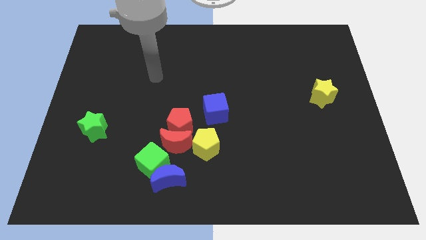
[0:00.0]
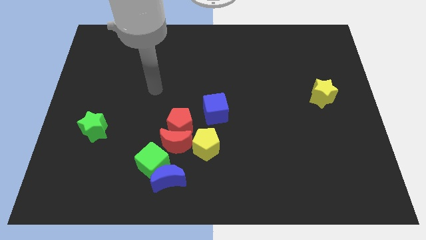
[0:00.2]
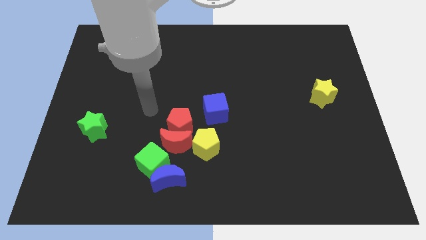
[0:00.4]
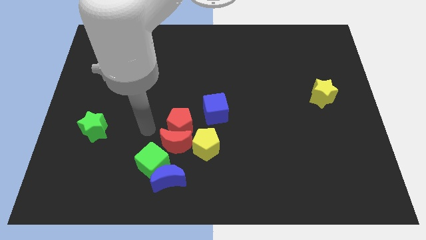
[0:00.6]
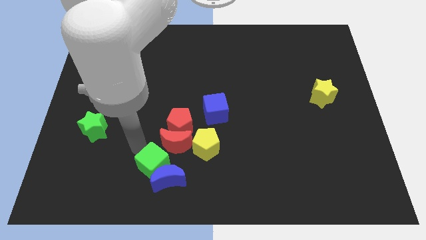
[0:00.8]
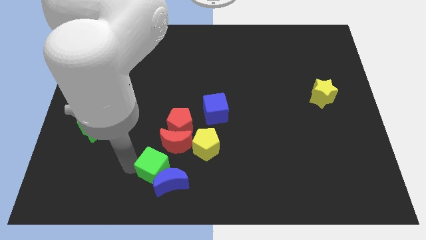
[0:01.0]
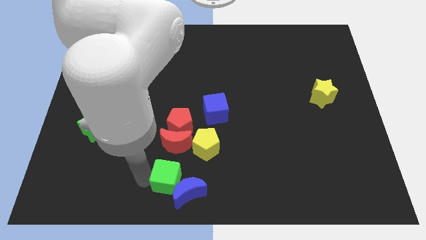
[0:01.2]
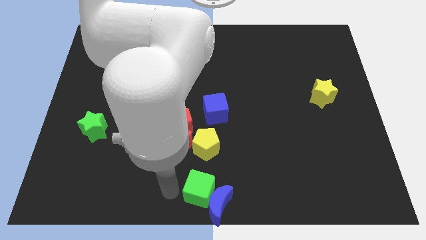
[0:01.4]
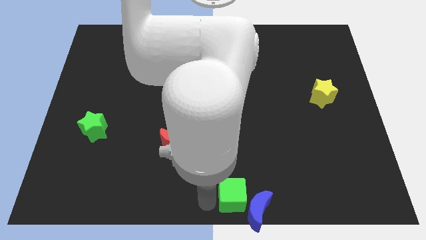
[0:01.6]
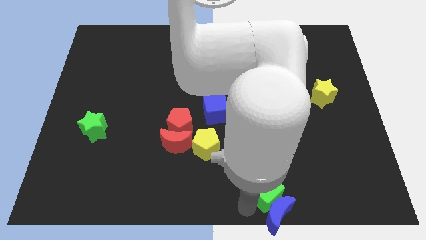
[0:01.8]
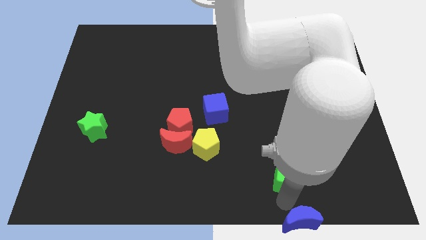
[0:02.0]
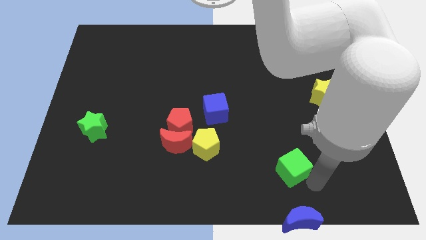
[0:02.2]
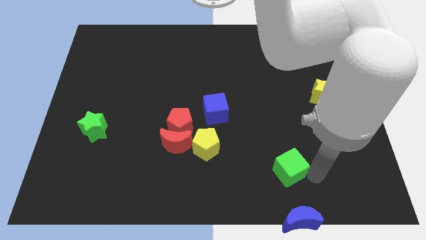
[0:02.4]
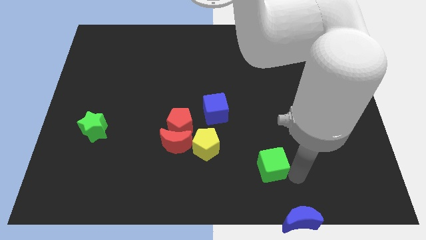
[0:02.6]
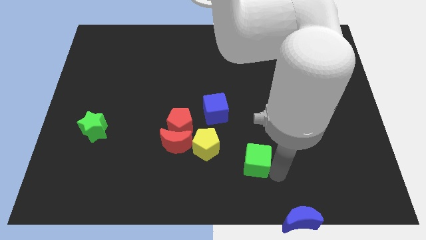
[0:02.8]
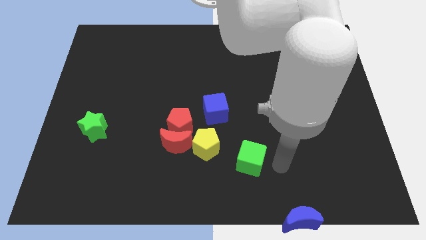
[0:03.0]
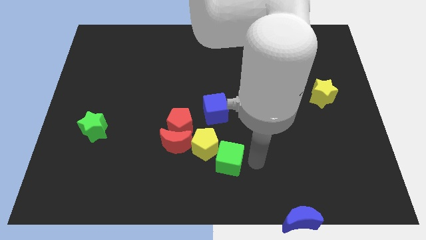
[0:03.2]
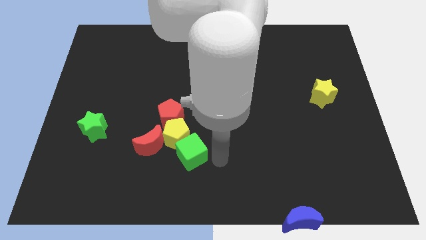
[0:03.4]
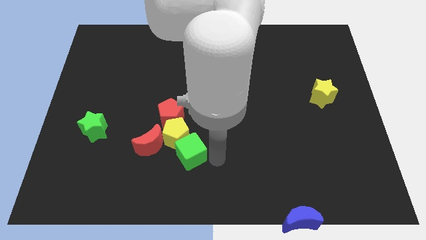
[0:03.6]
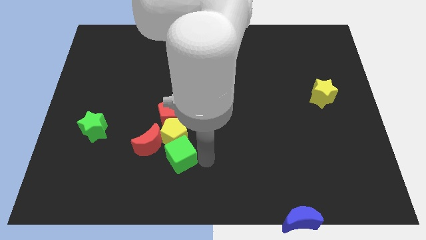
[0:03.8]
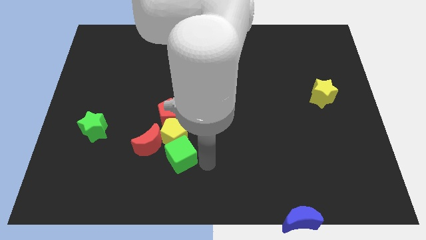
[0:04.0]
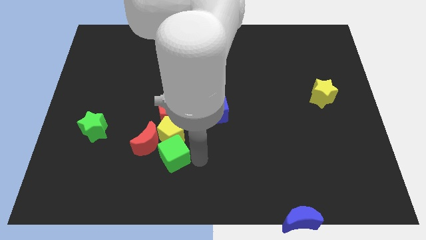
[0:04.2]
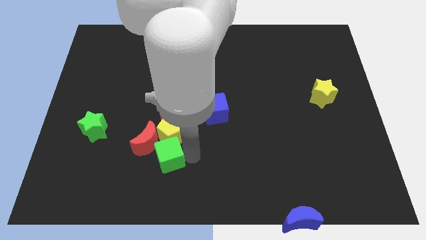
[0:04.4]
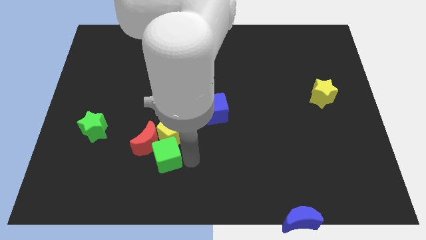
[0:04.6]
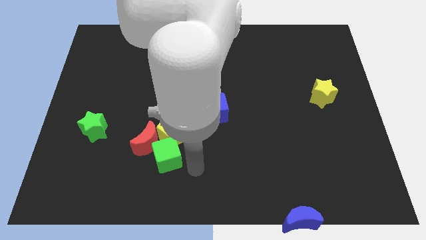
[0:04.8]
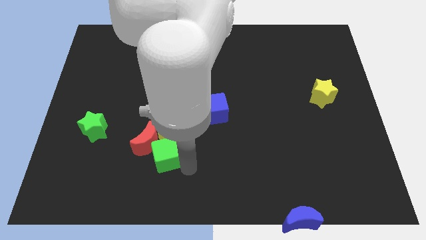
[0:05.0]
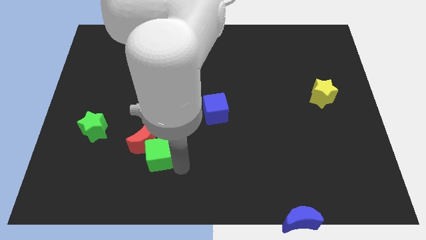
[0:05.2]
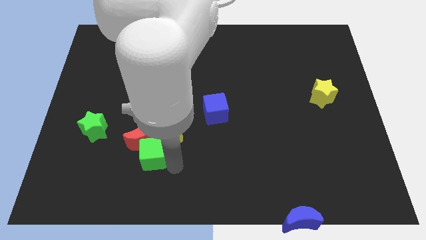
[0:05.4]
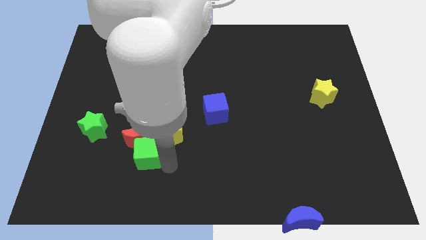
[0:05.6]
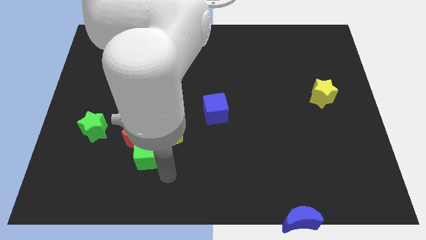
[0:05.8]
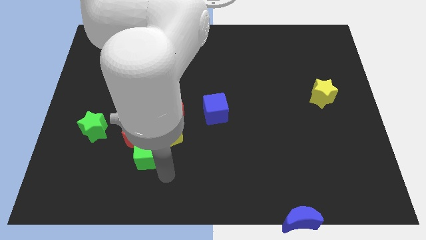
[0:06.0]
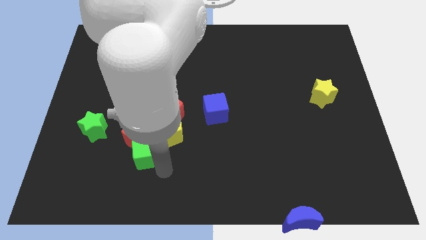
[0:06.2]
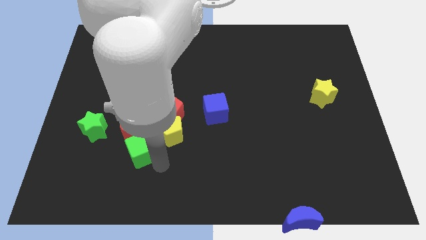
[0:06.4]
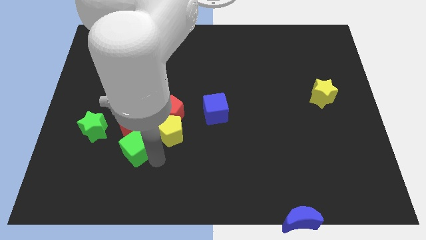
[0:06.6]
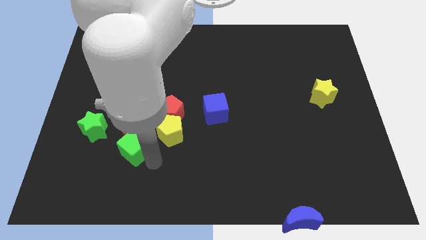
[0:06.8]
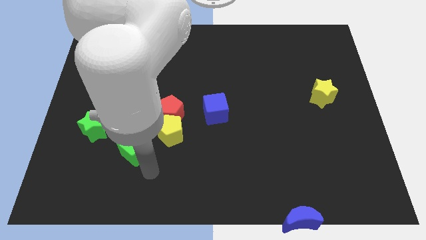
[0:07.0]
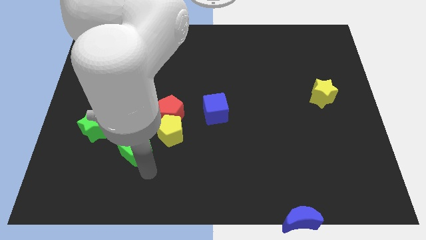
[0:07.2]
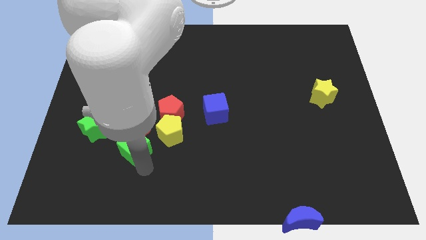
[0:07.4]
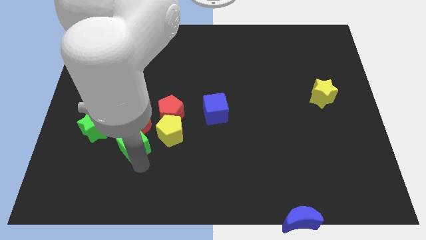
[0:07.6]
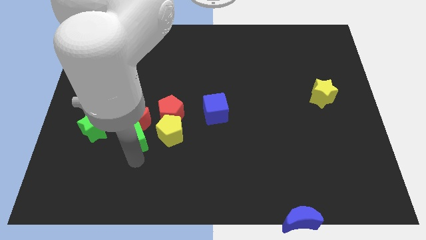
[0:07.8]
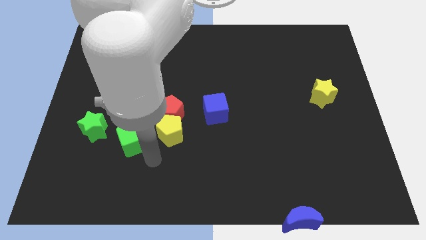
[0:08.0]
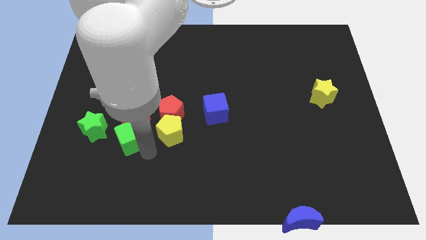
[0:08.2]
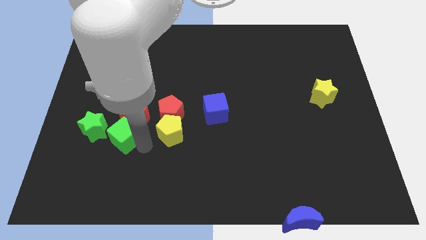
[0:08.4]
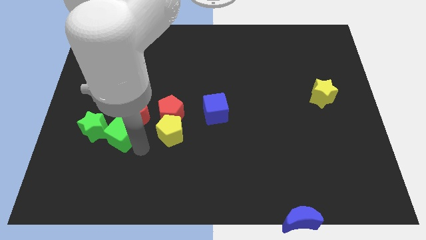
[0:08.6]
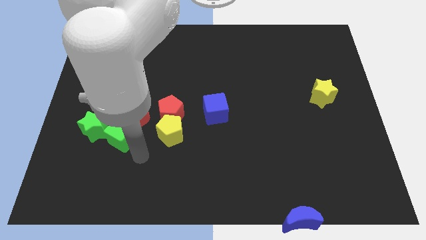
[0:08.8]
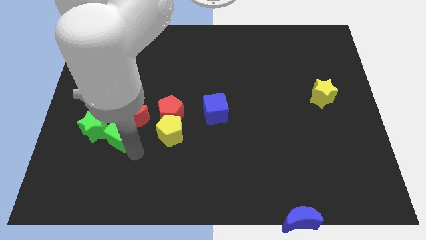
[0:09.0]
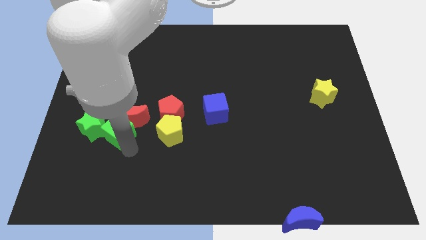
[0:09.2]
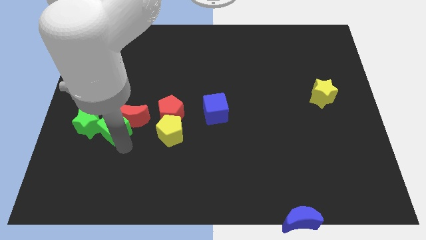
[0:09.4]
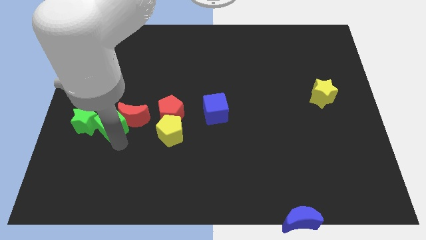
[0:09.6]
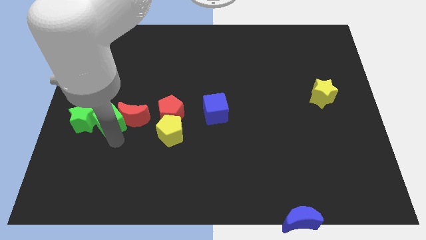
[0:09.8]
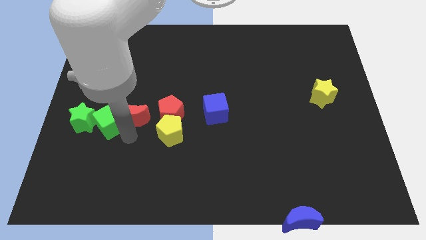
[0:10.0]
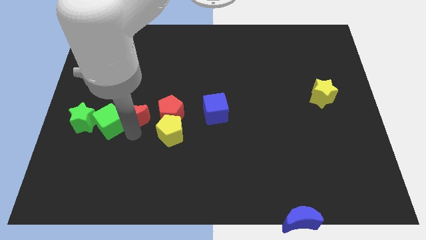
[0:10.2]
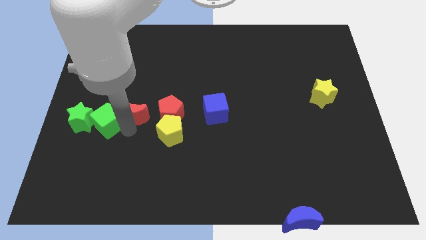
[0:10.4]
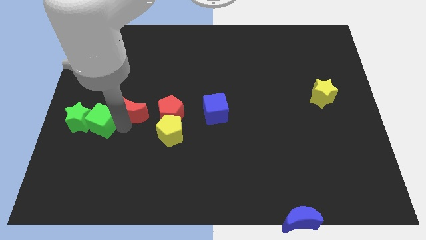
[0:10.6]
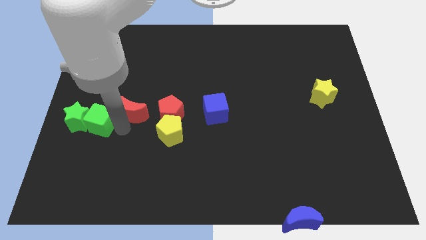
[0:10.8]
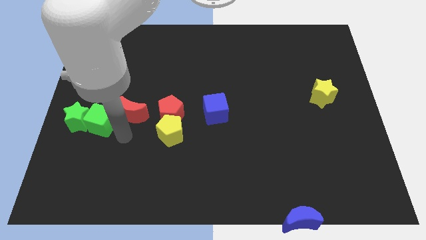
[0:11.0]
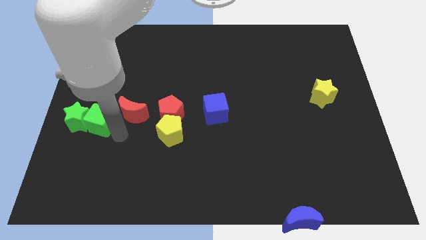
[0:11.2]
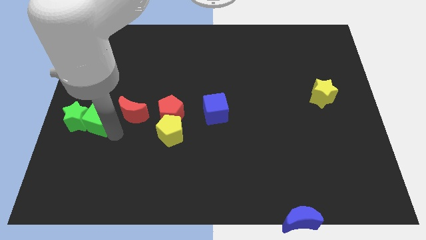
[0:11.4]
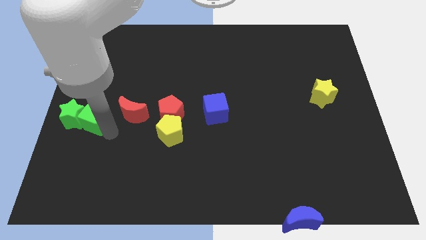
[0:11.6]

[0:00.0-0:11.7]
slide the green cube to the center left

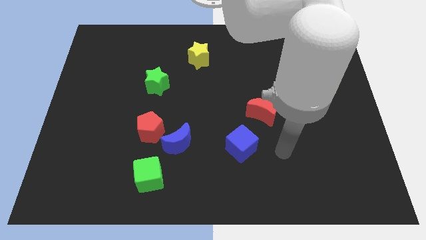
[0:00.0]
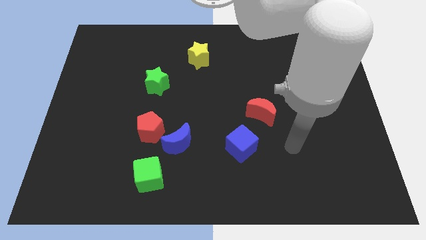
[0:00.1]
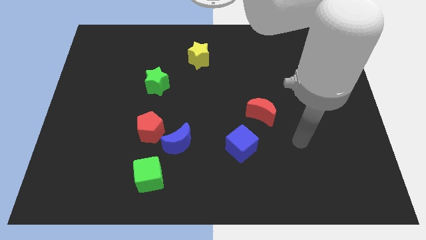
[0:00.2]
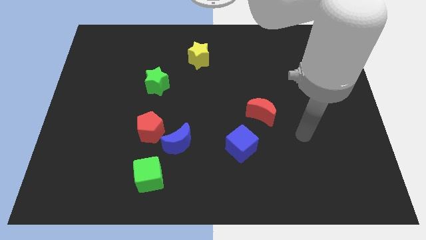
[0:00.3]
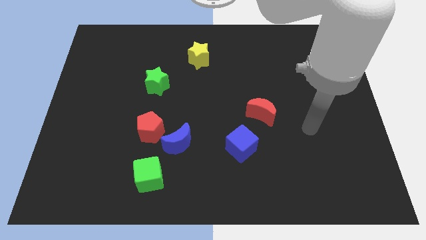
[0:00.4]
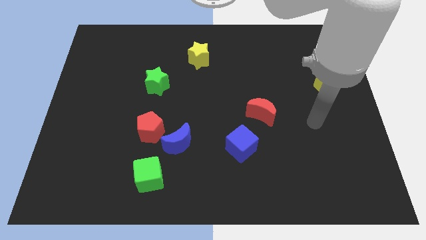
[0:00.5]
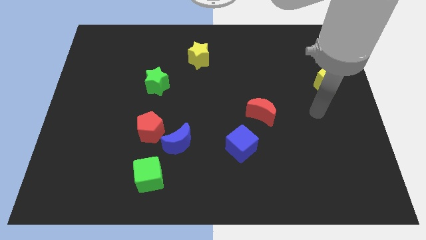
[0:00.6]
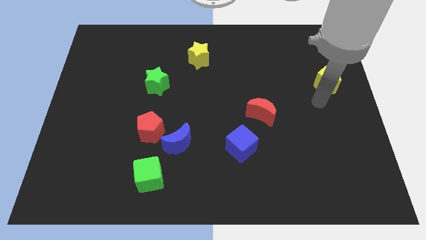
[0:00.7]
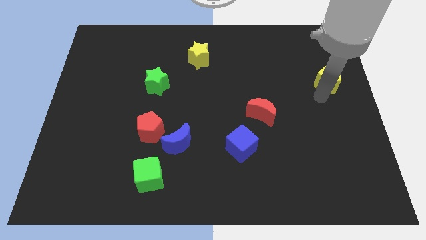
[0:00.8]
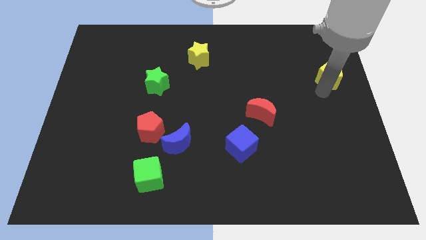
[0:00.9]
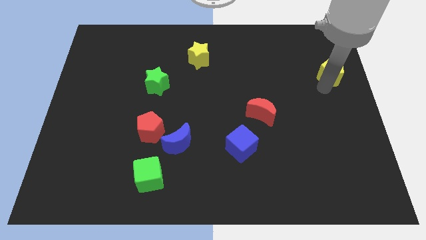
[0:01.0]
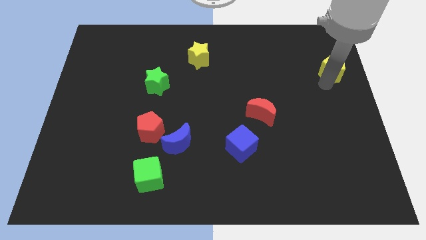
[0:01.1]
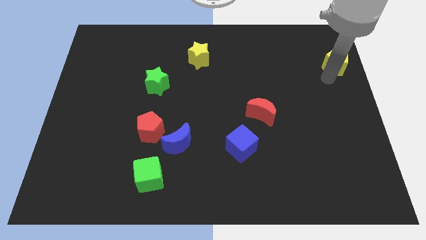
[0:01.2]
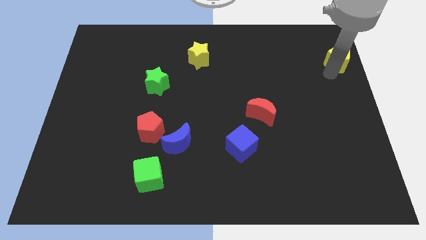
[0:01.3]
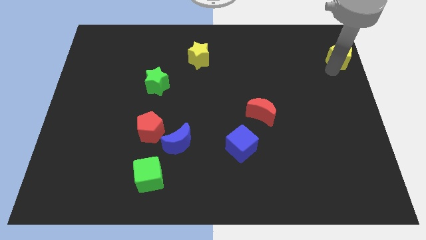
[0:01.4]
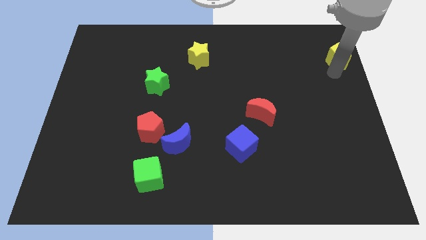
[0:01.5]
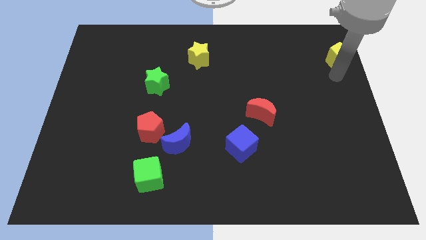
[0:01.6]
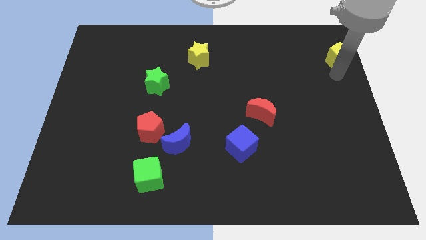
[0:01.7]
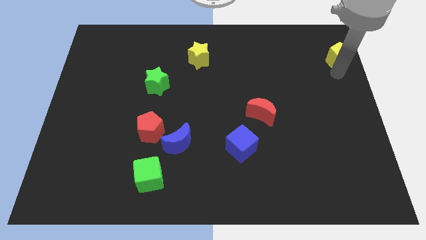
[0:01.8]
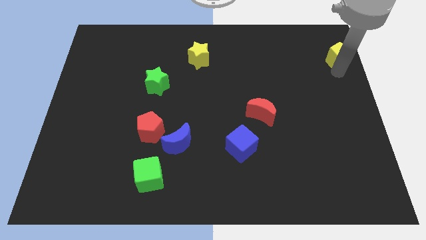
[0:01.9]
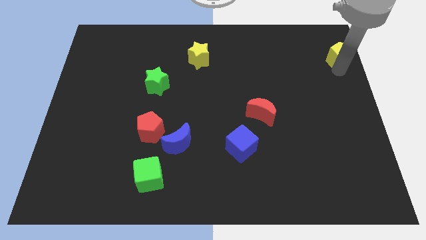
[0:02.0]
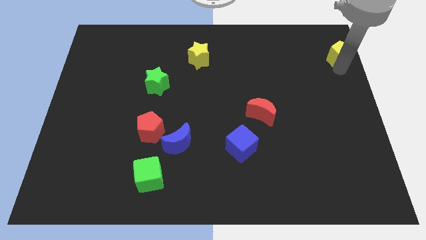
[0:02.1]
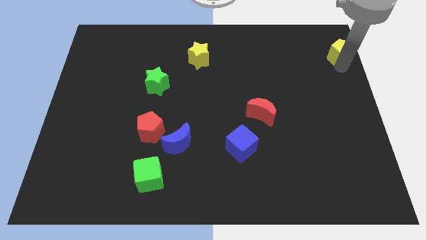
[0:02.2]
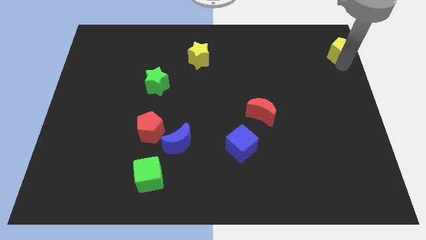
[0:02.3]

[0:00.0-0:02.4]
move the yellow pentagon to the top right
